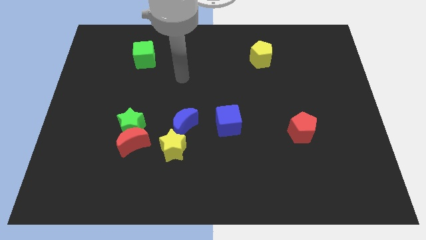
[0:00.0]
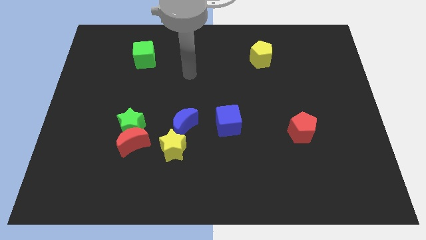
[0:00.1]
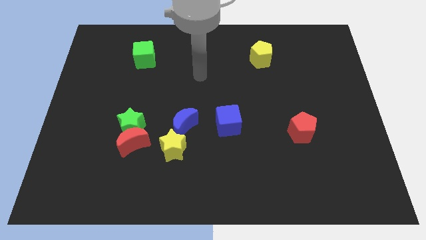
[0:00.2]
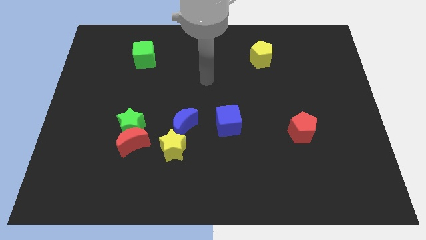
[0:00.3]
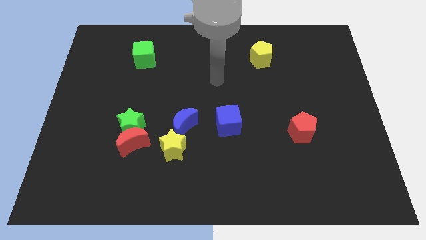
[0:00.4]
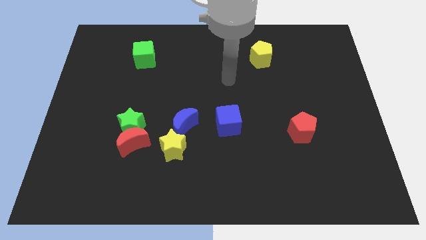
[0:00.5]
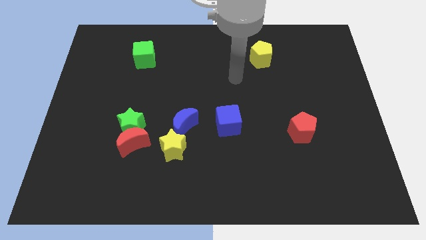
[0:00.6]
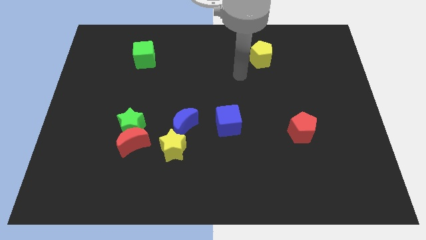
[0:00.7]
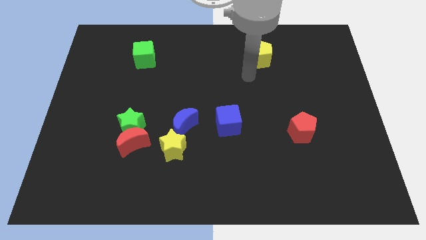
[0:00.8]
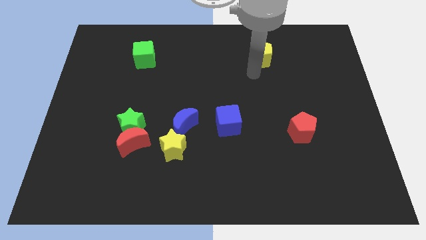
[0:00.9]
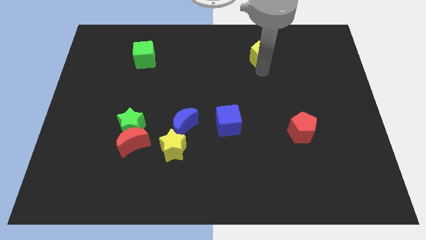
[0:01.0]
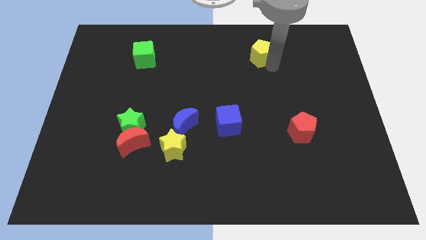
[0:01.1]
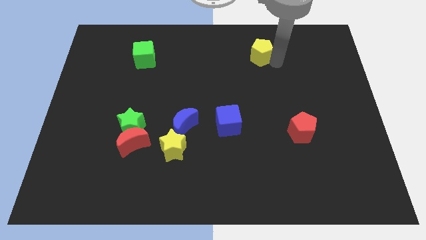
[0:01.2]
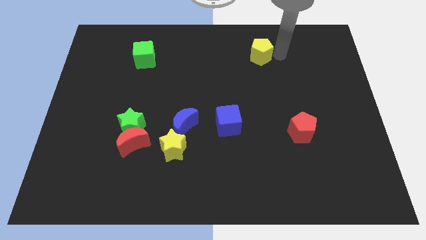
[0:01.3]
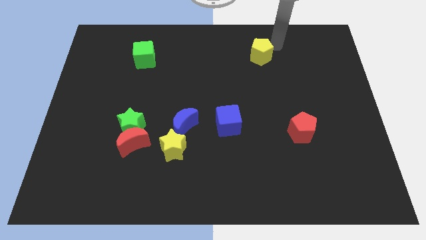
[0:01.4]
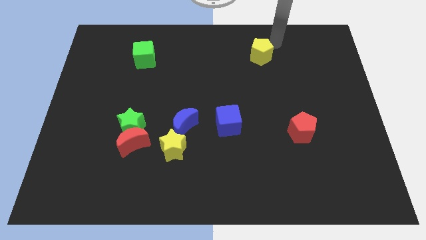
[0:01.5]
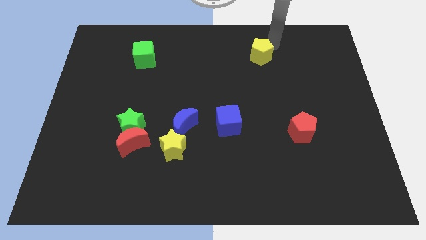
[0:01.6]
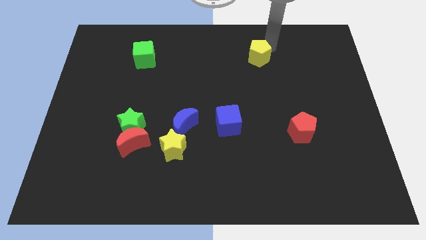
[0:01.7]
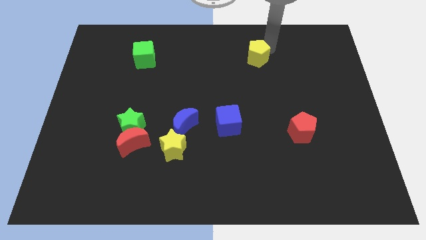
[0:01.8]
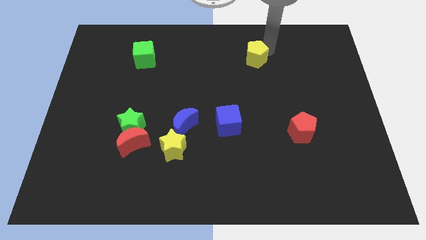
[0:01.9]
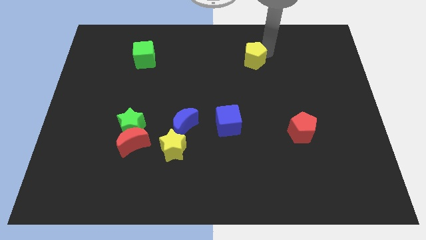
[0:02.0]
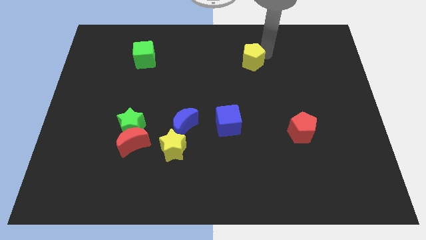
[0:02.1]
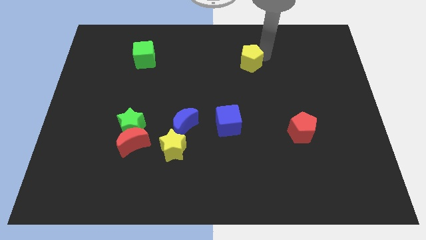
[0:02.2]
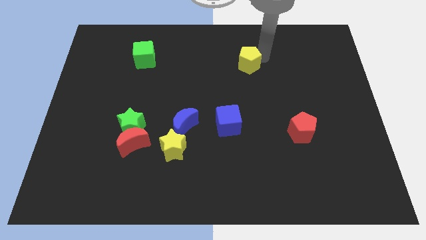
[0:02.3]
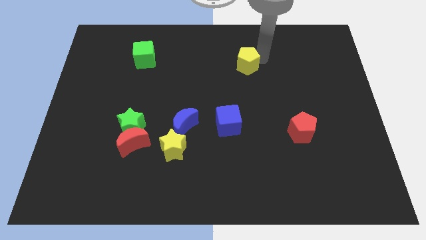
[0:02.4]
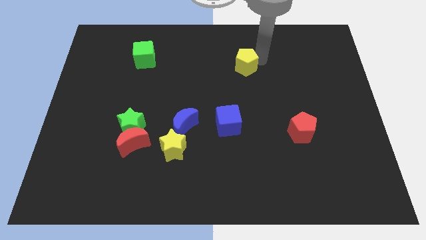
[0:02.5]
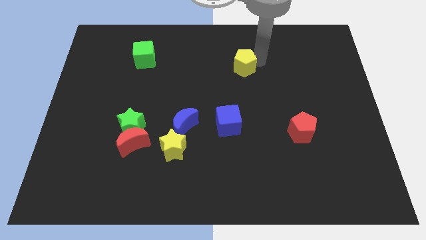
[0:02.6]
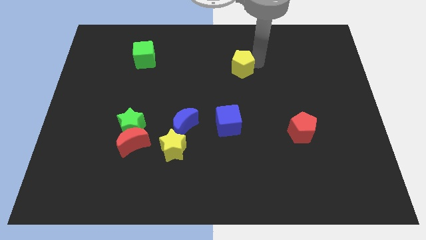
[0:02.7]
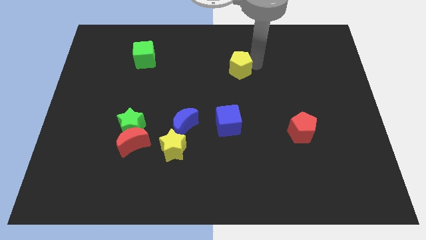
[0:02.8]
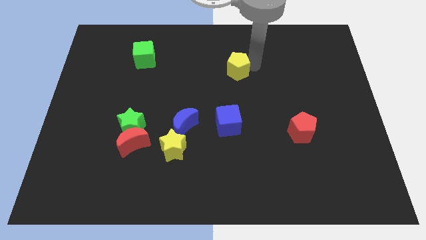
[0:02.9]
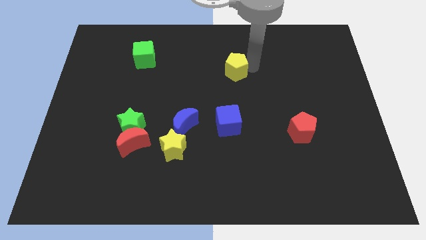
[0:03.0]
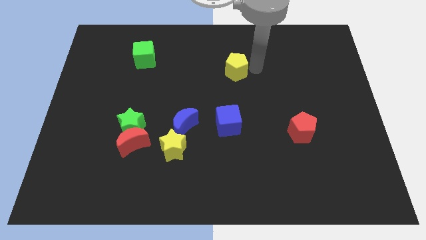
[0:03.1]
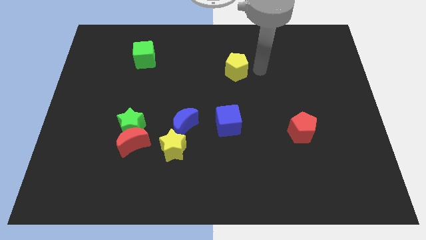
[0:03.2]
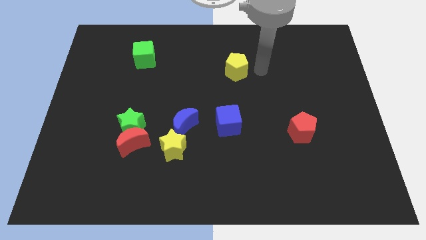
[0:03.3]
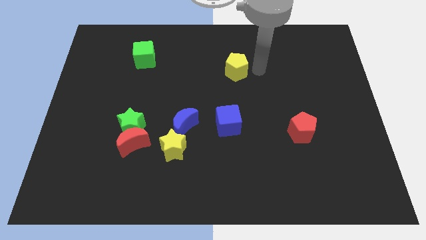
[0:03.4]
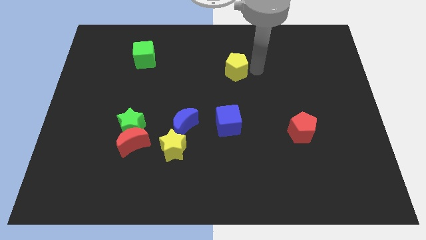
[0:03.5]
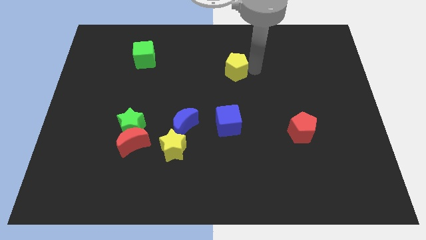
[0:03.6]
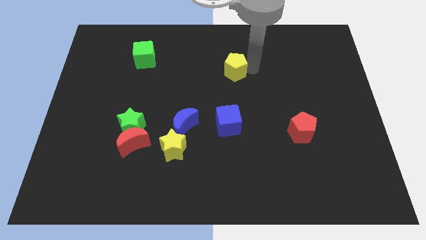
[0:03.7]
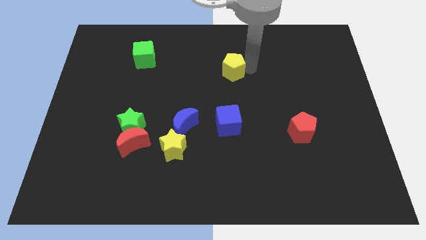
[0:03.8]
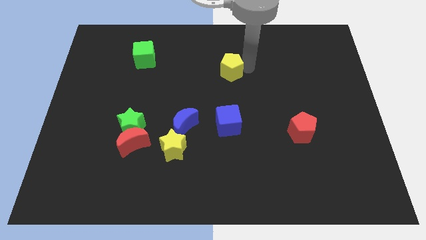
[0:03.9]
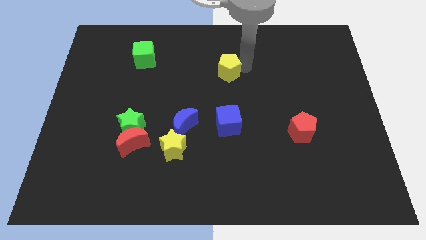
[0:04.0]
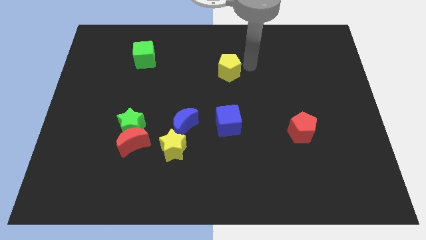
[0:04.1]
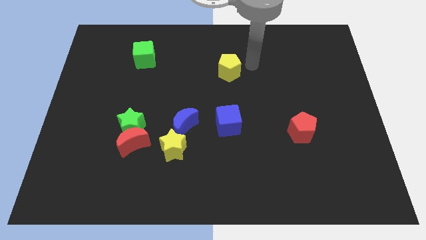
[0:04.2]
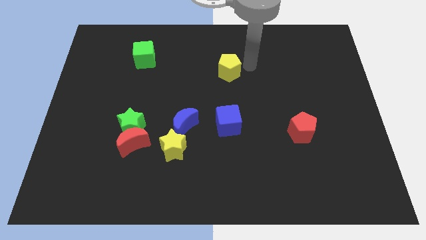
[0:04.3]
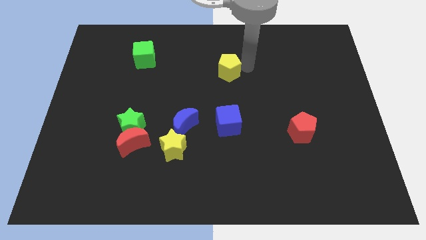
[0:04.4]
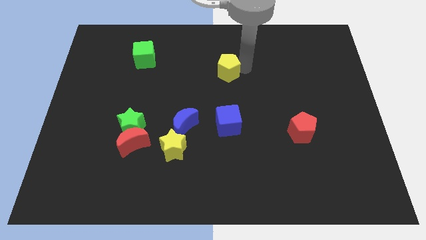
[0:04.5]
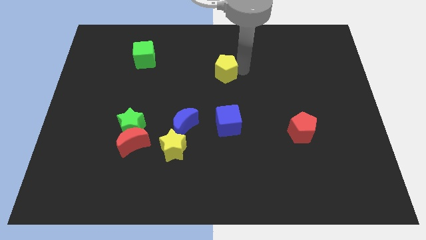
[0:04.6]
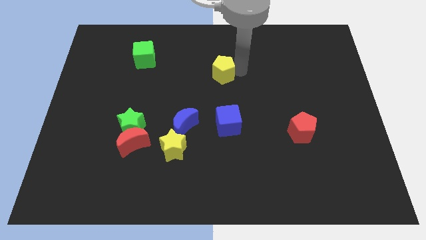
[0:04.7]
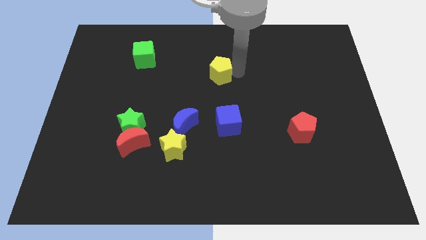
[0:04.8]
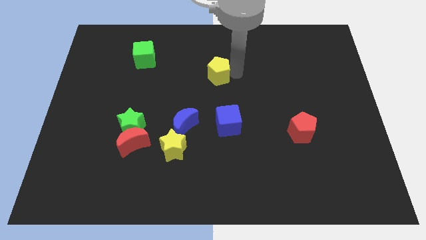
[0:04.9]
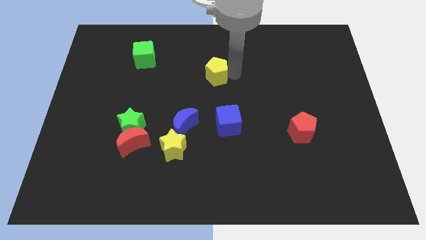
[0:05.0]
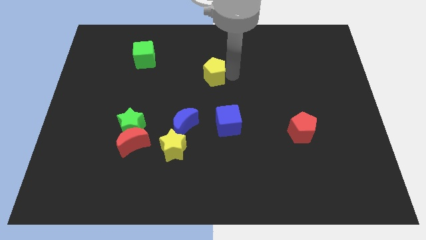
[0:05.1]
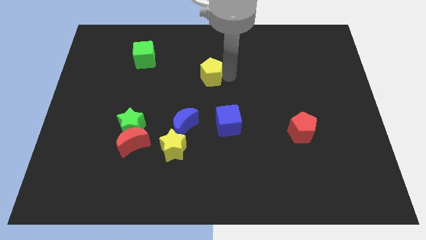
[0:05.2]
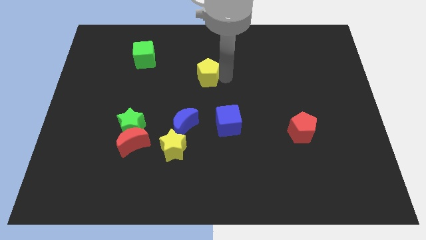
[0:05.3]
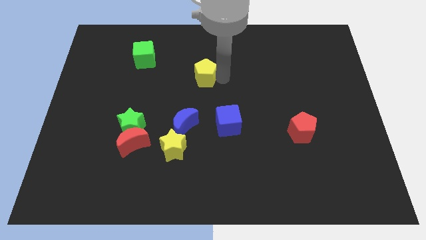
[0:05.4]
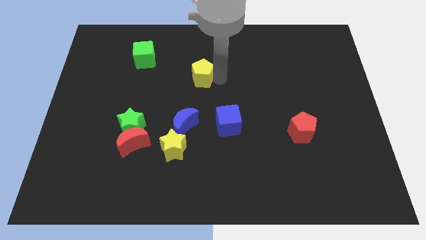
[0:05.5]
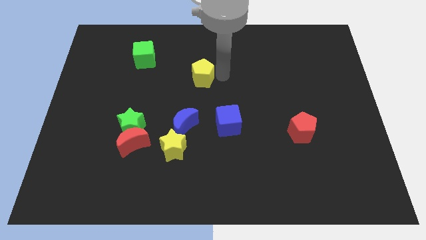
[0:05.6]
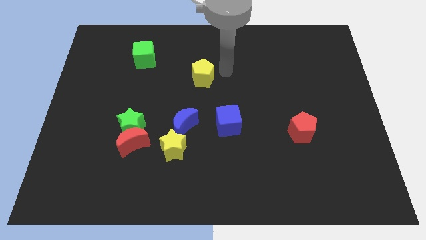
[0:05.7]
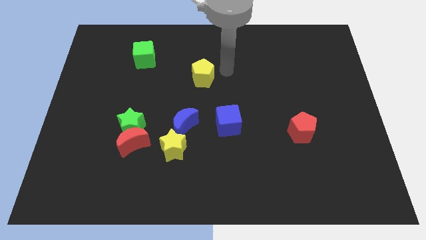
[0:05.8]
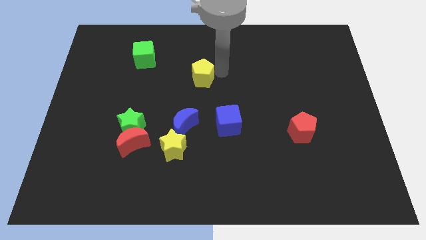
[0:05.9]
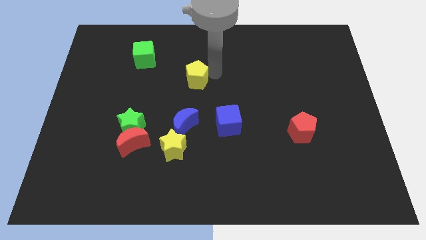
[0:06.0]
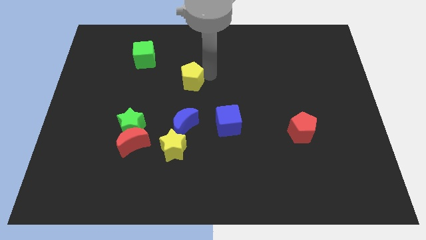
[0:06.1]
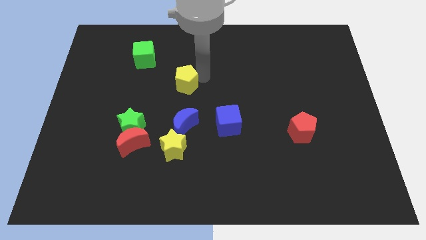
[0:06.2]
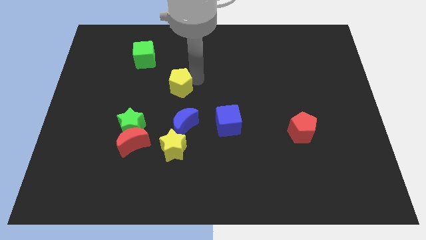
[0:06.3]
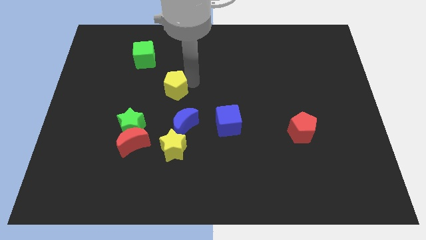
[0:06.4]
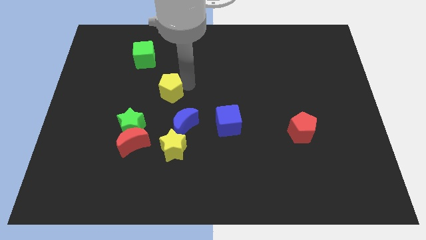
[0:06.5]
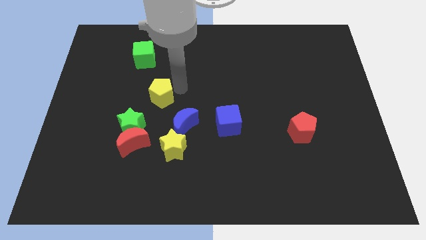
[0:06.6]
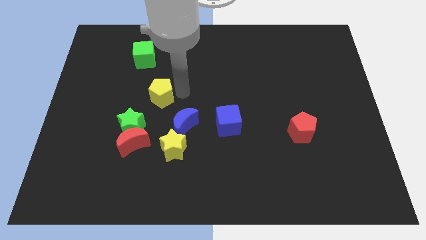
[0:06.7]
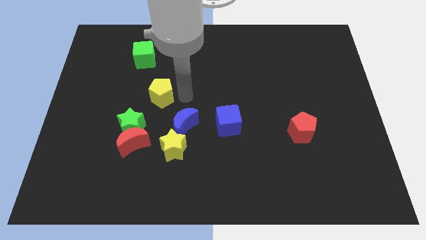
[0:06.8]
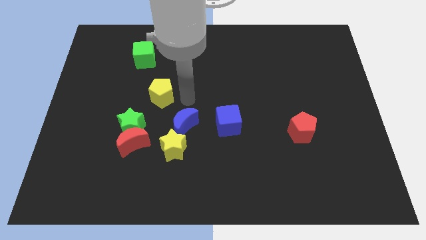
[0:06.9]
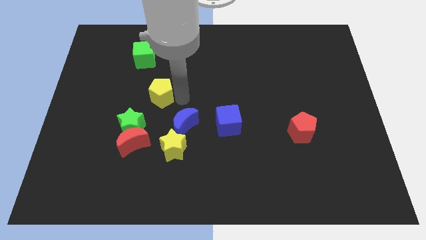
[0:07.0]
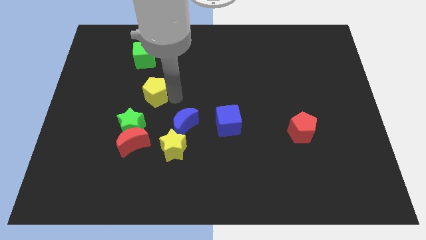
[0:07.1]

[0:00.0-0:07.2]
slide the yellow pentagon to the top of the green star
